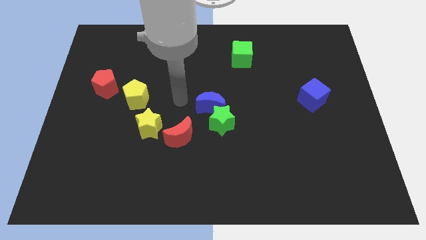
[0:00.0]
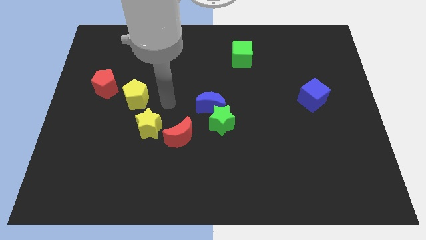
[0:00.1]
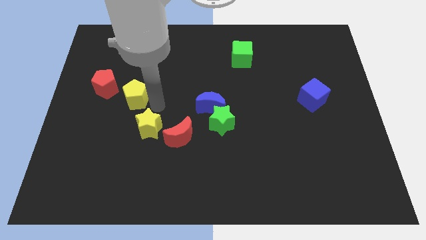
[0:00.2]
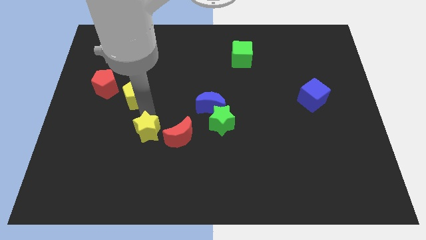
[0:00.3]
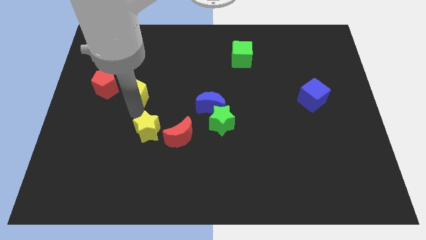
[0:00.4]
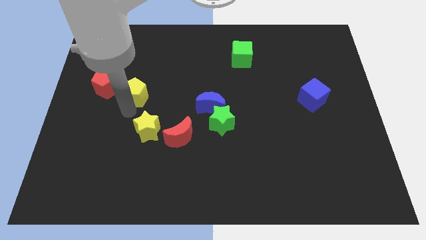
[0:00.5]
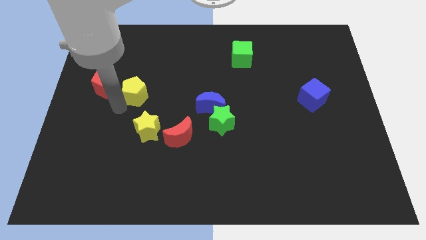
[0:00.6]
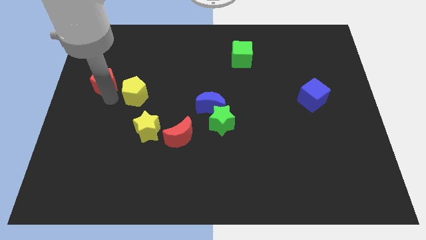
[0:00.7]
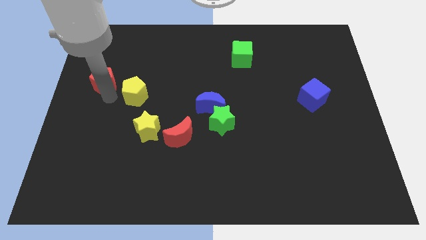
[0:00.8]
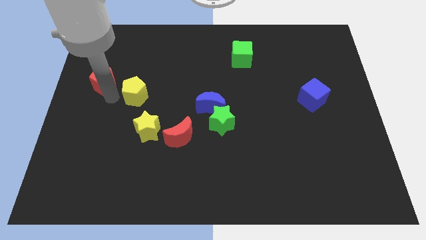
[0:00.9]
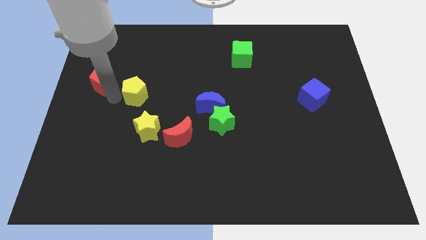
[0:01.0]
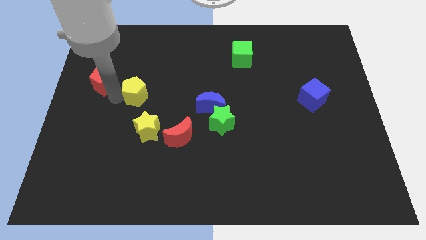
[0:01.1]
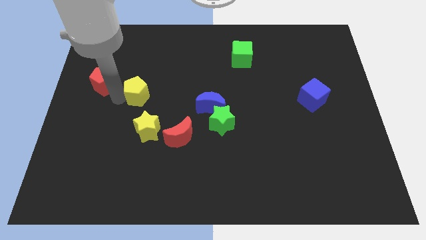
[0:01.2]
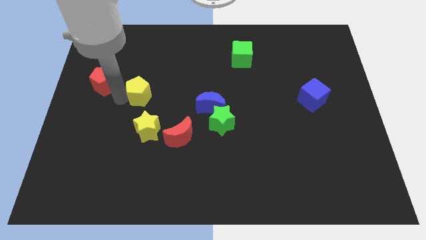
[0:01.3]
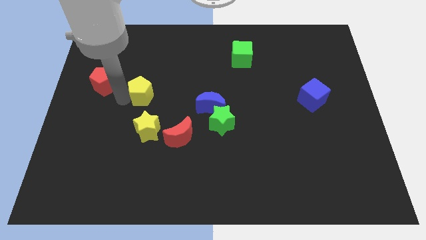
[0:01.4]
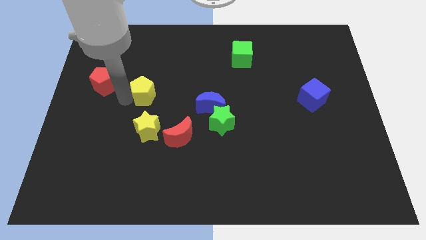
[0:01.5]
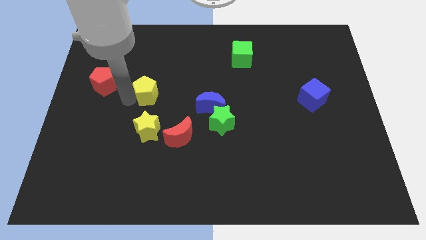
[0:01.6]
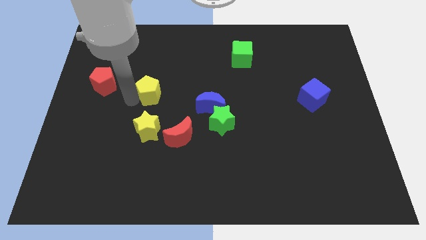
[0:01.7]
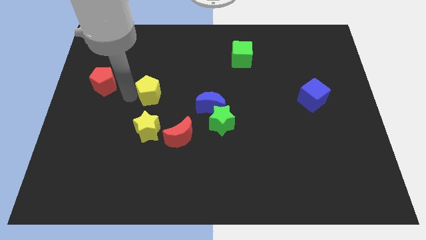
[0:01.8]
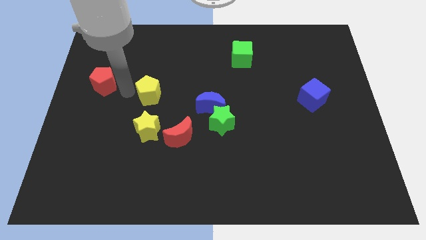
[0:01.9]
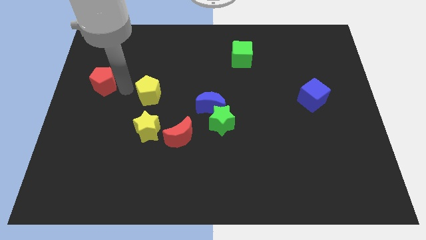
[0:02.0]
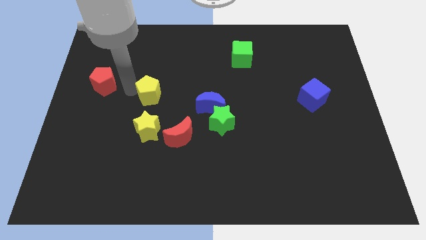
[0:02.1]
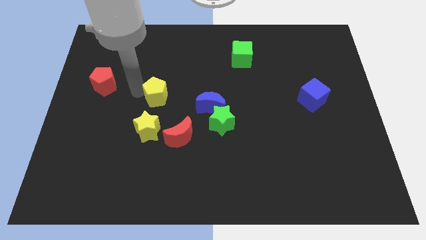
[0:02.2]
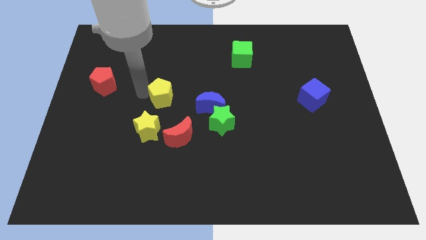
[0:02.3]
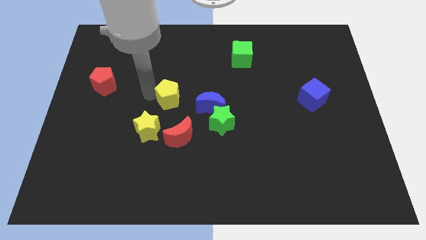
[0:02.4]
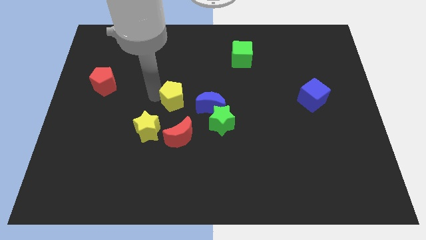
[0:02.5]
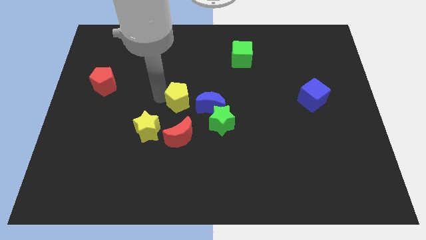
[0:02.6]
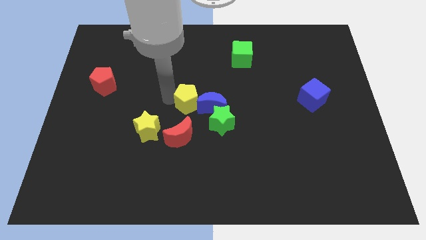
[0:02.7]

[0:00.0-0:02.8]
push the yellow pentagon close to the blue moon

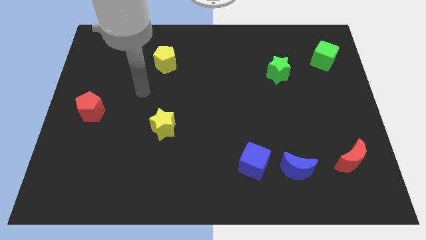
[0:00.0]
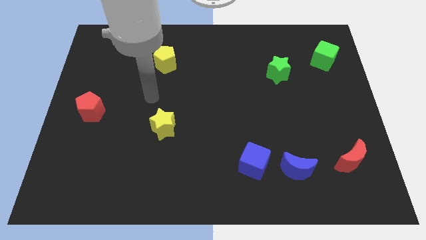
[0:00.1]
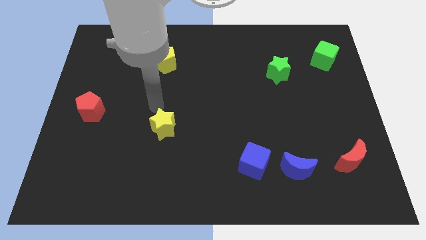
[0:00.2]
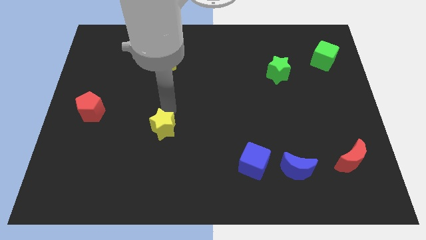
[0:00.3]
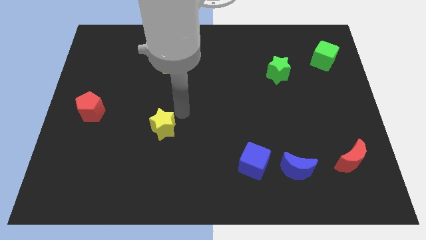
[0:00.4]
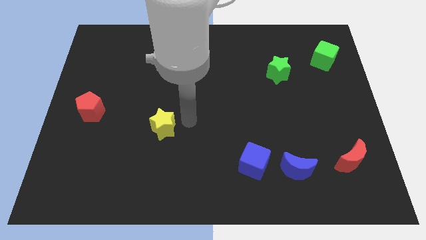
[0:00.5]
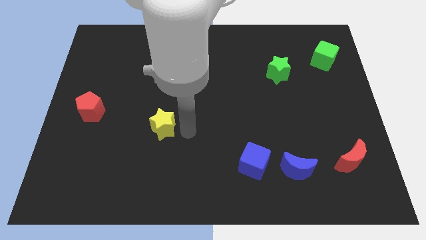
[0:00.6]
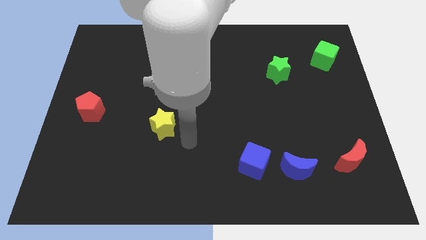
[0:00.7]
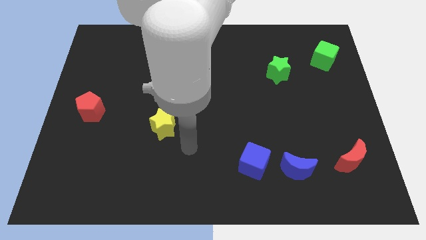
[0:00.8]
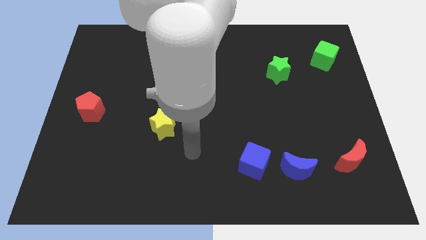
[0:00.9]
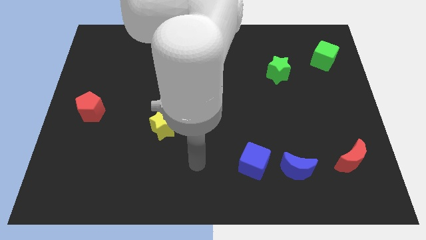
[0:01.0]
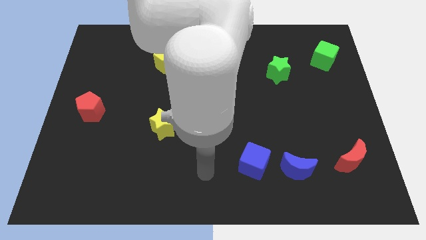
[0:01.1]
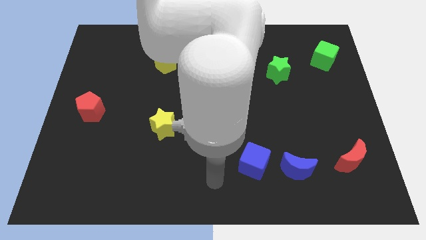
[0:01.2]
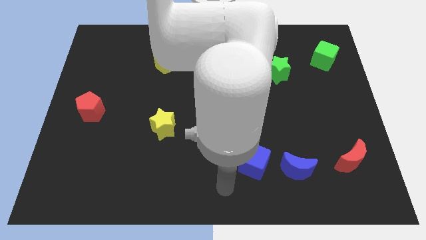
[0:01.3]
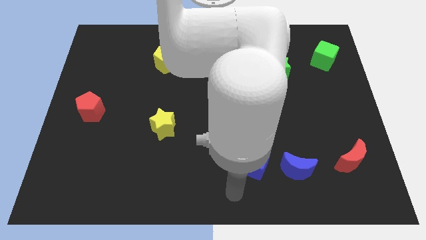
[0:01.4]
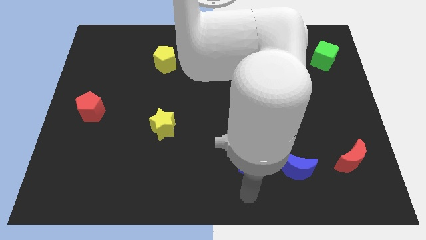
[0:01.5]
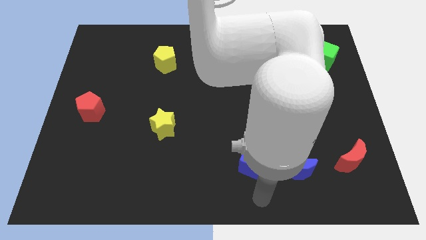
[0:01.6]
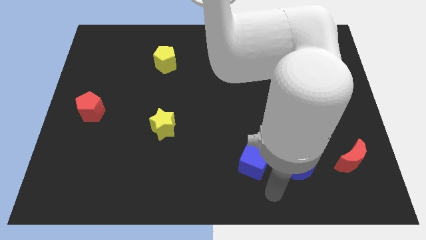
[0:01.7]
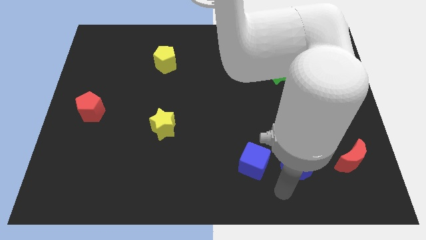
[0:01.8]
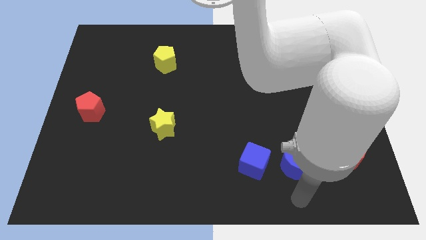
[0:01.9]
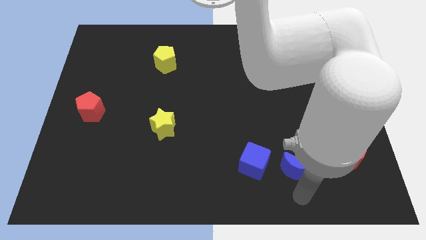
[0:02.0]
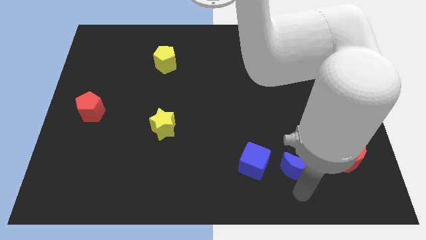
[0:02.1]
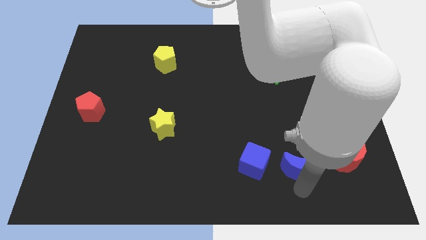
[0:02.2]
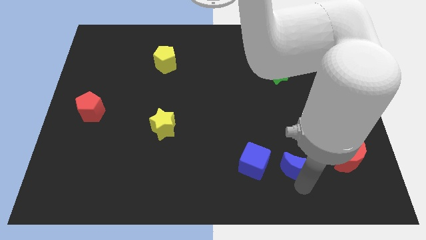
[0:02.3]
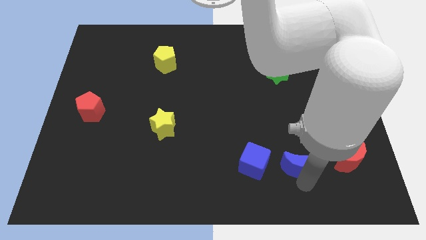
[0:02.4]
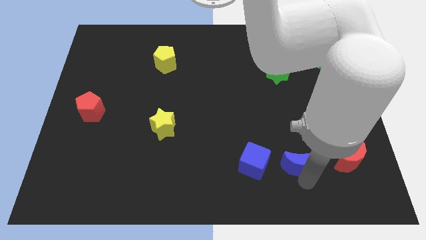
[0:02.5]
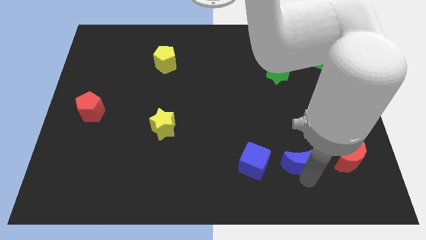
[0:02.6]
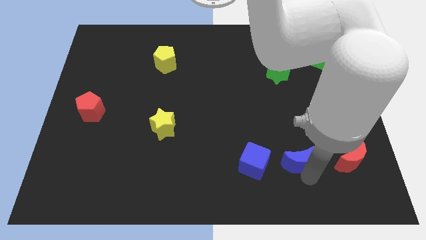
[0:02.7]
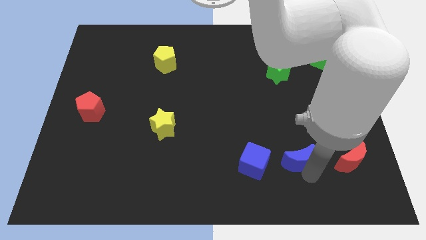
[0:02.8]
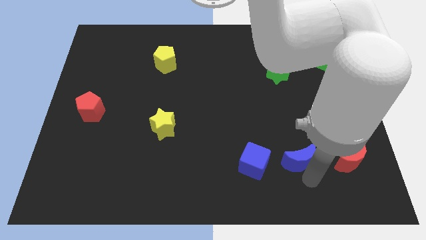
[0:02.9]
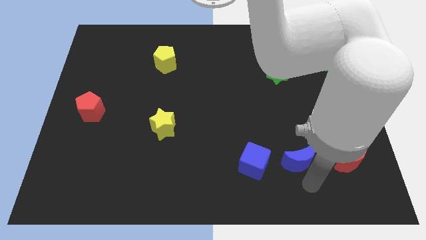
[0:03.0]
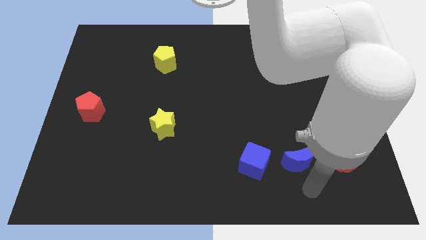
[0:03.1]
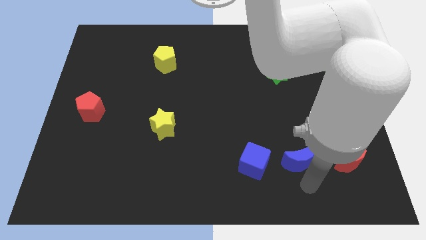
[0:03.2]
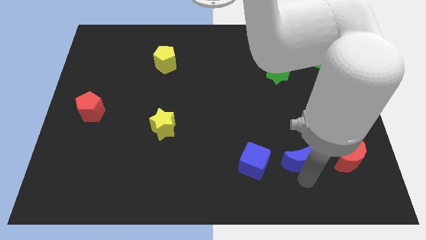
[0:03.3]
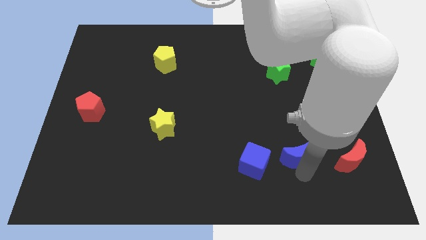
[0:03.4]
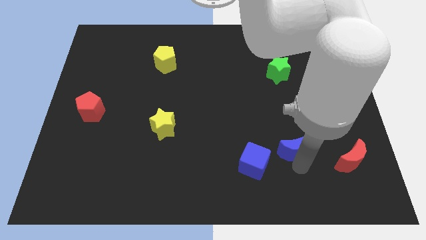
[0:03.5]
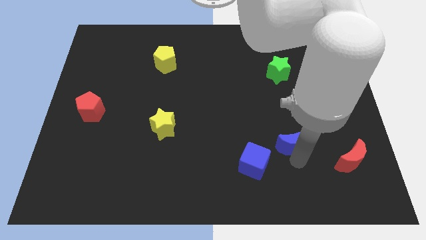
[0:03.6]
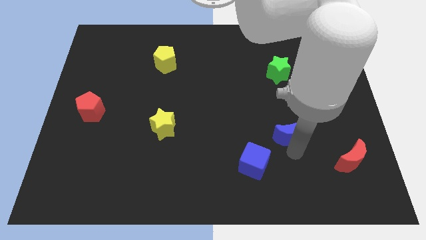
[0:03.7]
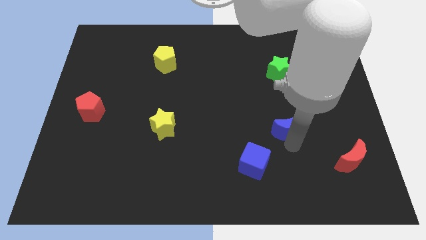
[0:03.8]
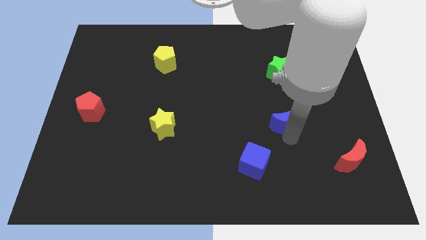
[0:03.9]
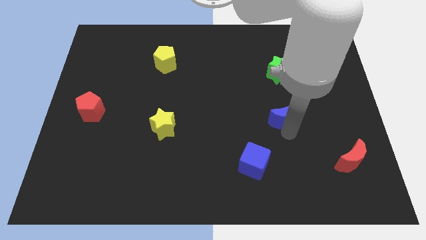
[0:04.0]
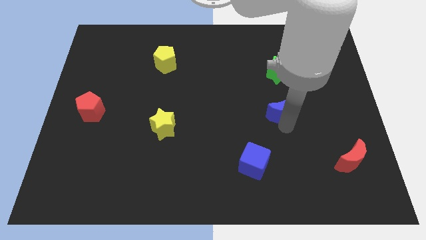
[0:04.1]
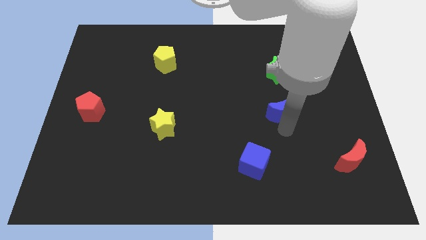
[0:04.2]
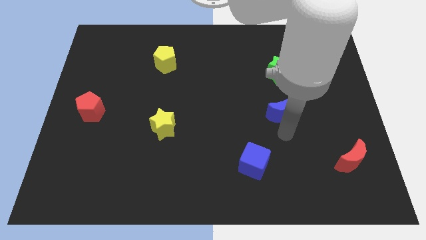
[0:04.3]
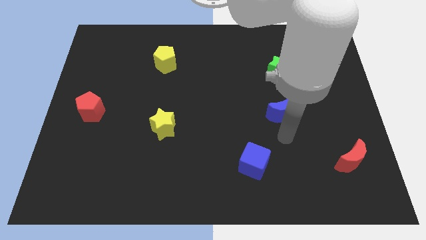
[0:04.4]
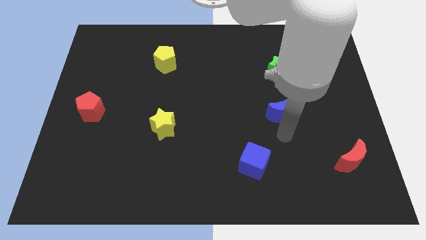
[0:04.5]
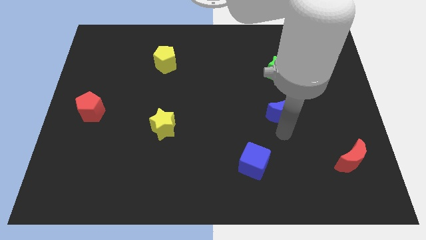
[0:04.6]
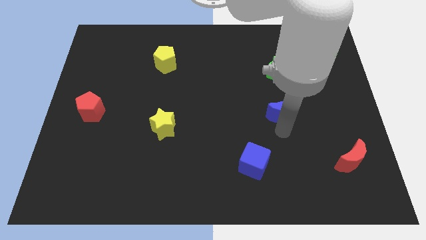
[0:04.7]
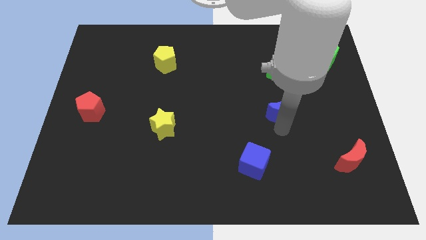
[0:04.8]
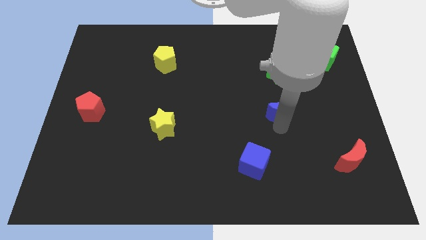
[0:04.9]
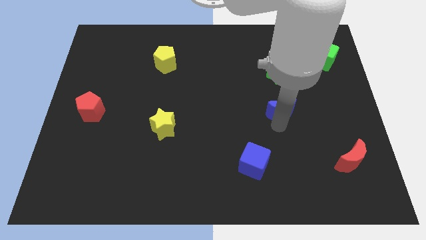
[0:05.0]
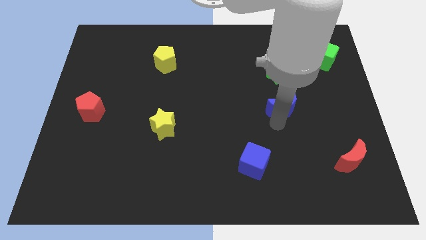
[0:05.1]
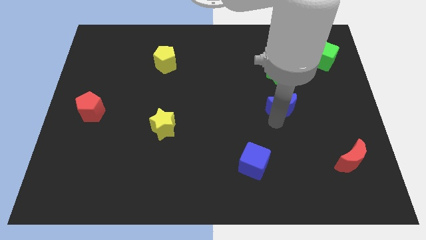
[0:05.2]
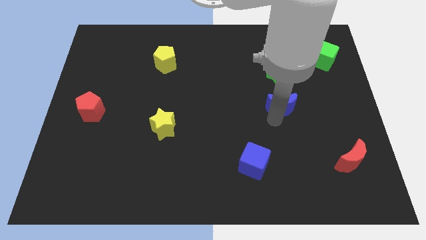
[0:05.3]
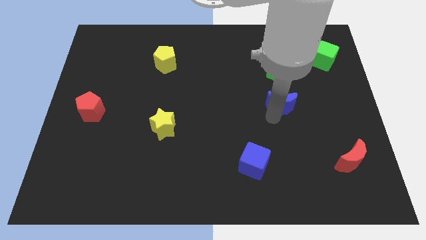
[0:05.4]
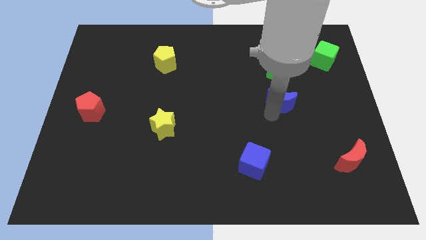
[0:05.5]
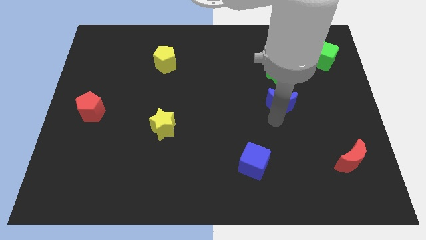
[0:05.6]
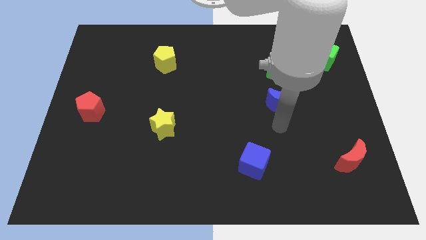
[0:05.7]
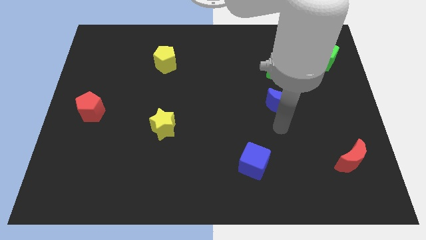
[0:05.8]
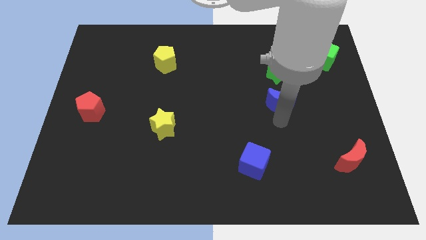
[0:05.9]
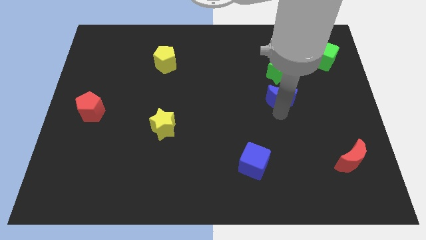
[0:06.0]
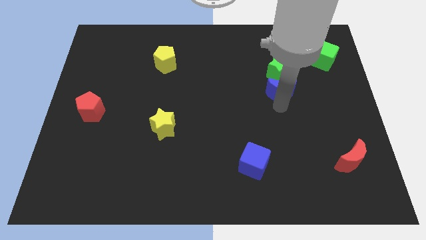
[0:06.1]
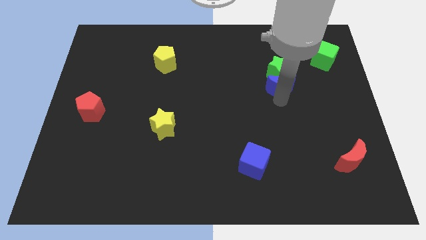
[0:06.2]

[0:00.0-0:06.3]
put the blue moon towards the green star
